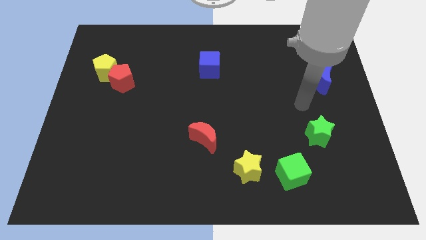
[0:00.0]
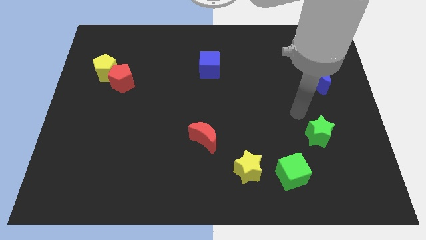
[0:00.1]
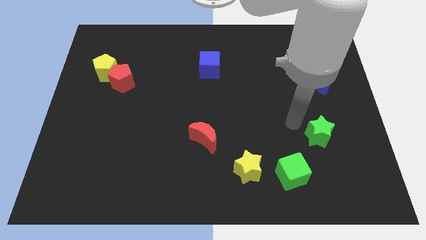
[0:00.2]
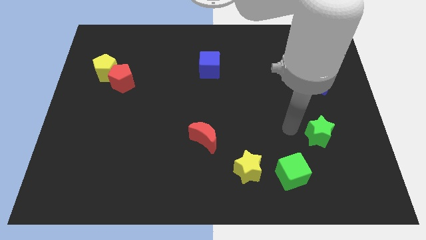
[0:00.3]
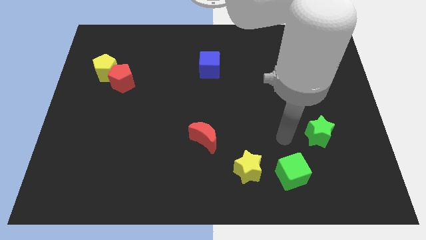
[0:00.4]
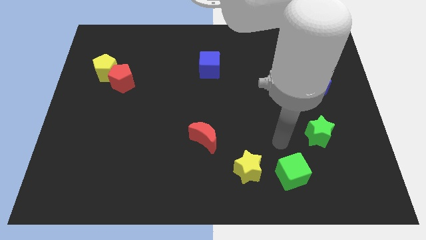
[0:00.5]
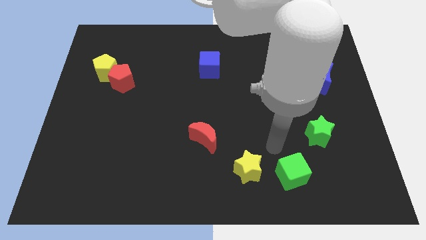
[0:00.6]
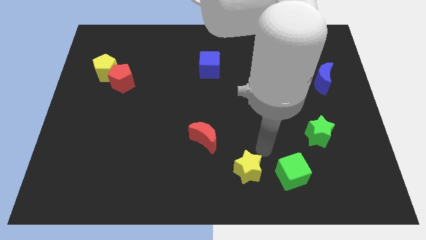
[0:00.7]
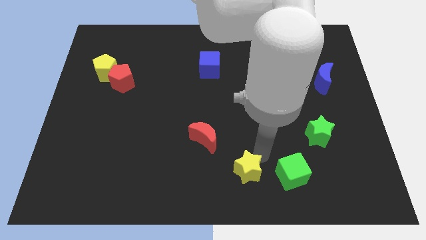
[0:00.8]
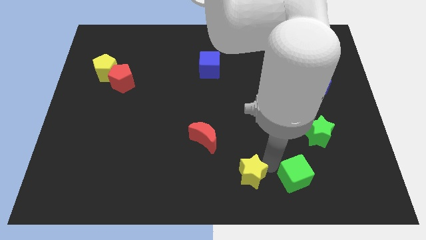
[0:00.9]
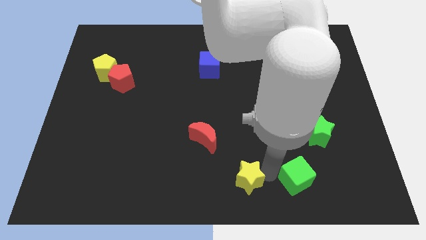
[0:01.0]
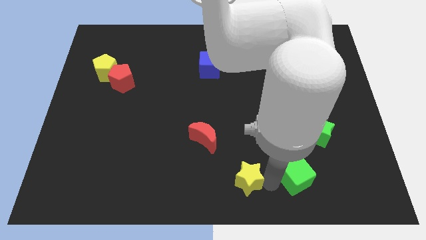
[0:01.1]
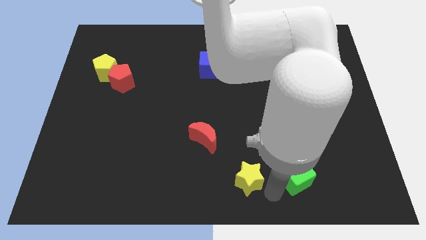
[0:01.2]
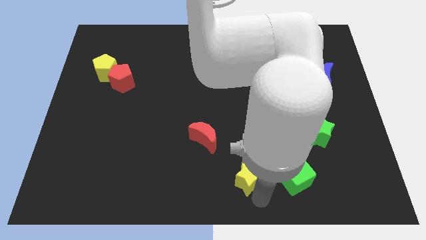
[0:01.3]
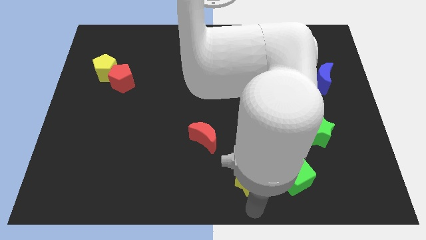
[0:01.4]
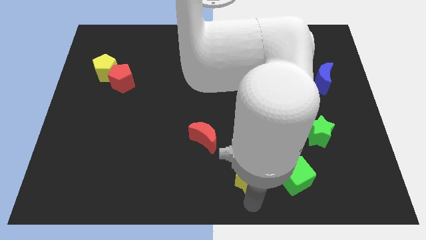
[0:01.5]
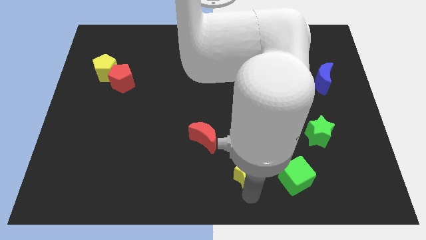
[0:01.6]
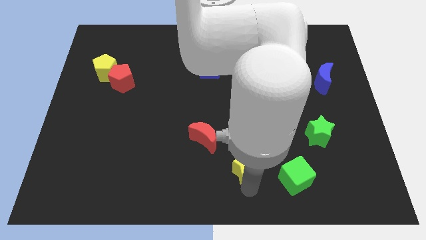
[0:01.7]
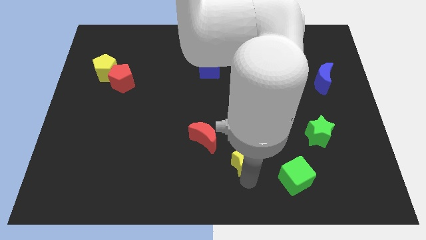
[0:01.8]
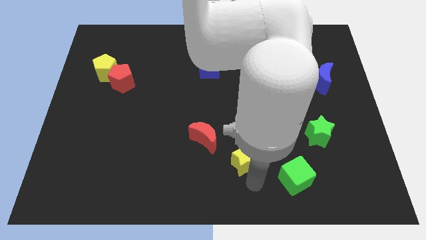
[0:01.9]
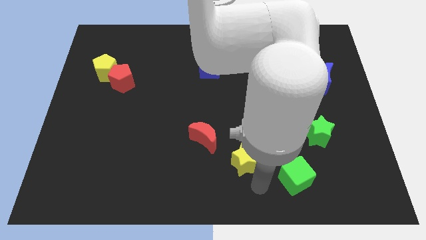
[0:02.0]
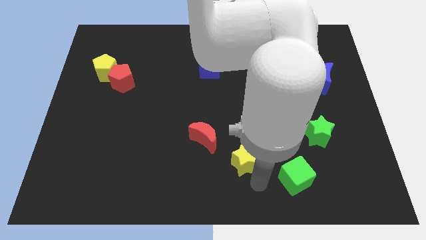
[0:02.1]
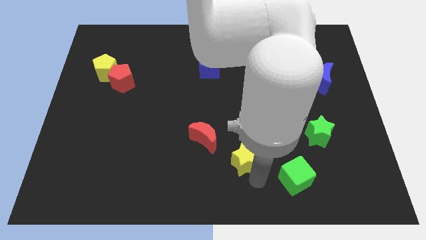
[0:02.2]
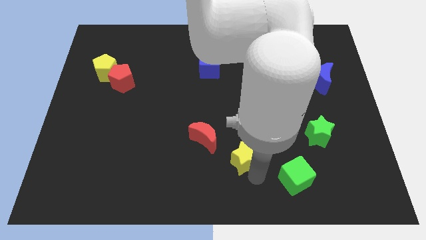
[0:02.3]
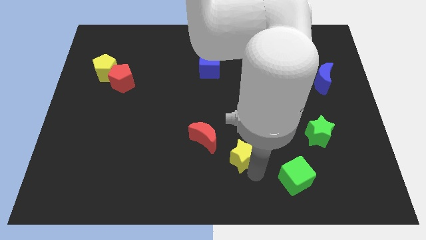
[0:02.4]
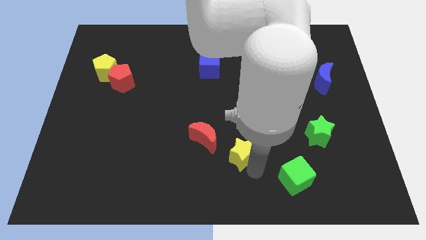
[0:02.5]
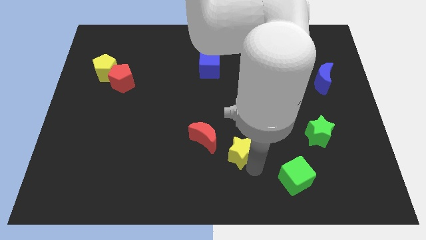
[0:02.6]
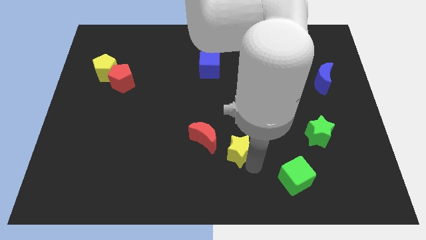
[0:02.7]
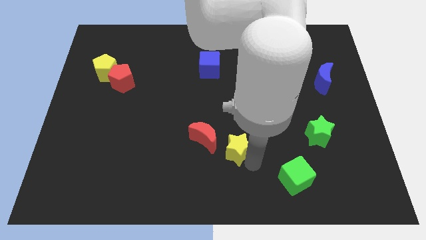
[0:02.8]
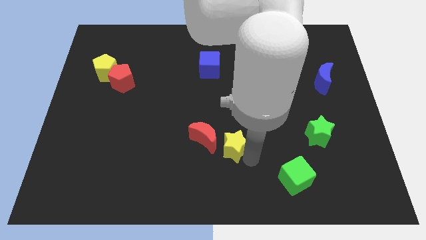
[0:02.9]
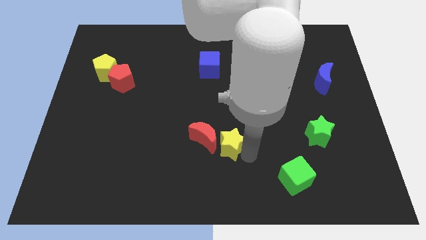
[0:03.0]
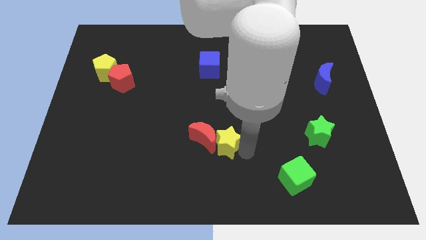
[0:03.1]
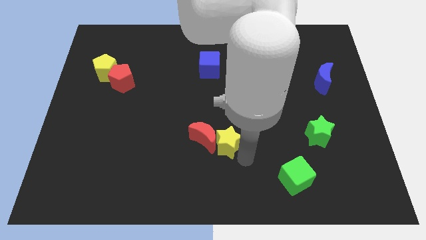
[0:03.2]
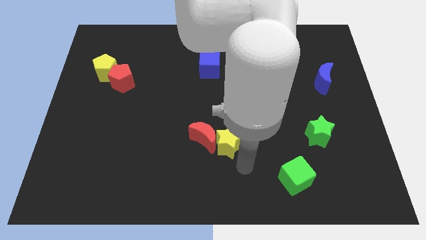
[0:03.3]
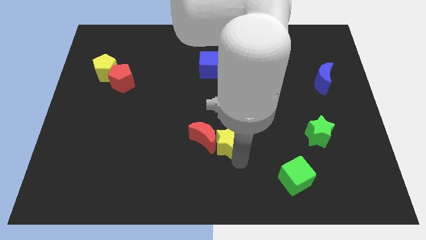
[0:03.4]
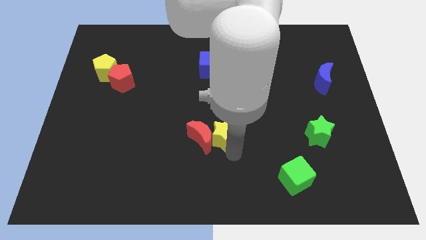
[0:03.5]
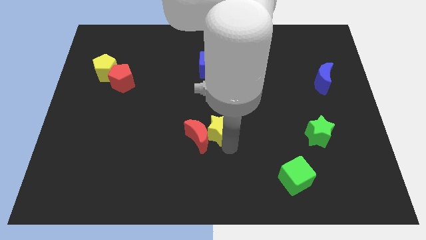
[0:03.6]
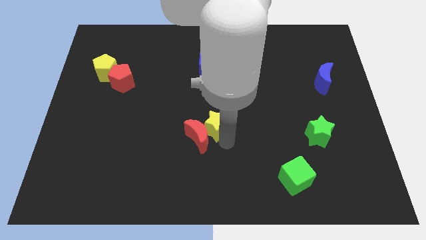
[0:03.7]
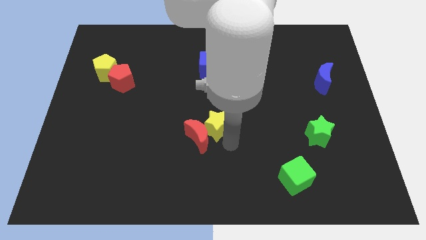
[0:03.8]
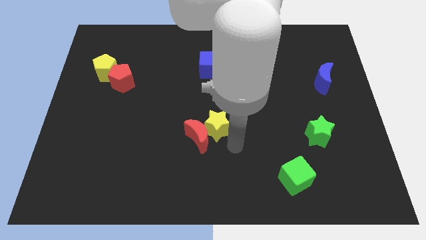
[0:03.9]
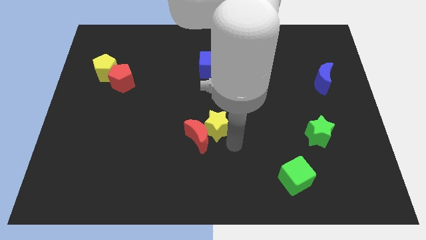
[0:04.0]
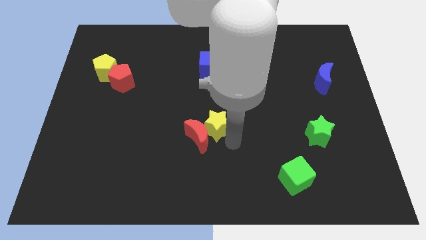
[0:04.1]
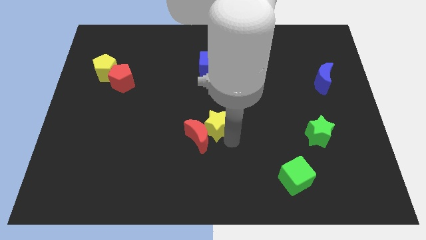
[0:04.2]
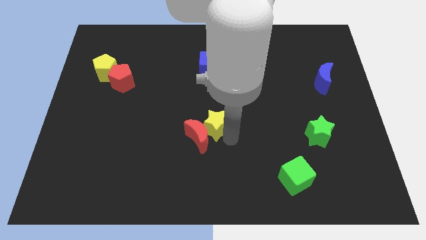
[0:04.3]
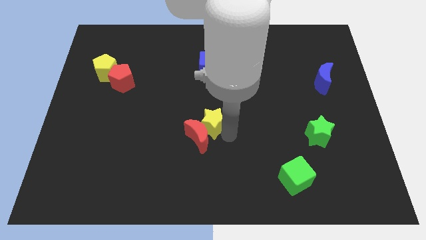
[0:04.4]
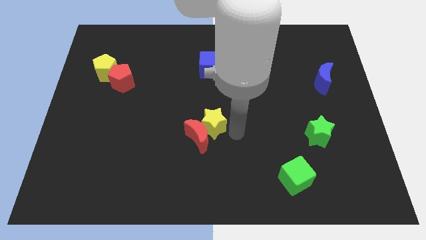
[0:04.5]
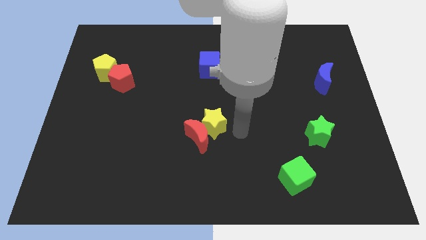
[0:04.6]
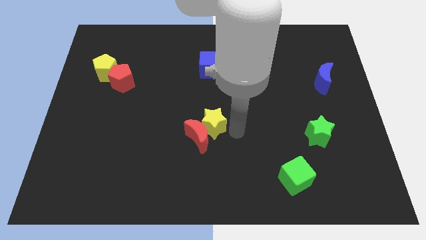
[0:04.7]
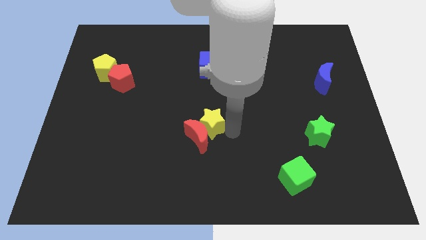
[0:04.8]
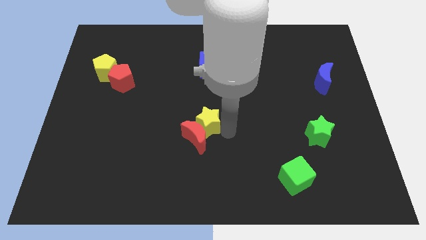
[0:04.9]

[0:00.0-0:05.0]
put the yellow star to the top left of the red moon

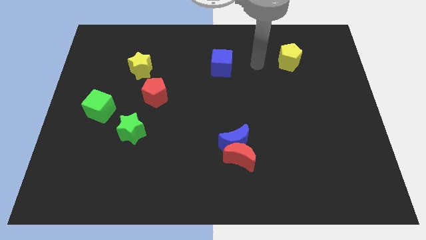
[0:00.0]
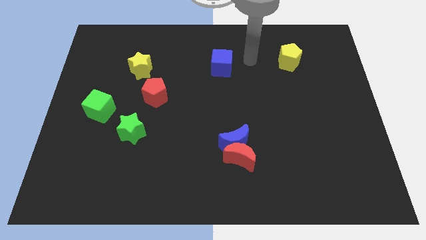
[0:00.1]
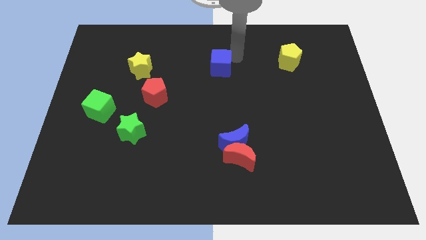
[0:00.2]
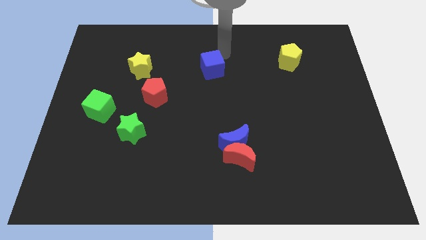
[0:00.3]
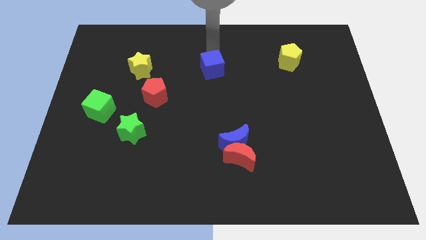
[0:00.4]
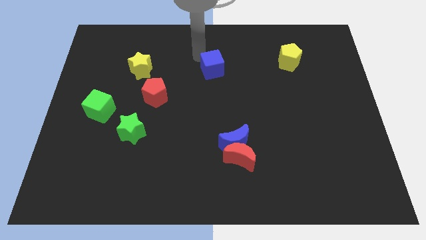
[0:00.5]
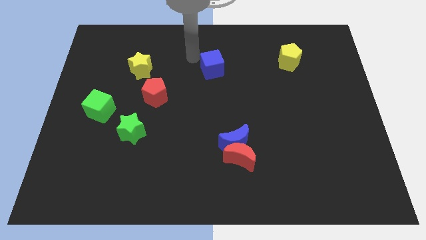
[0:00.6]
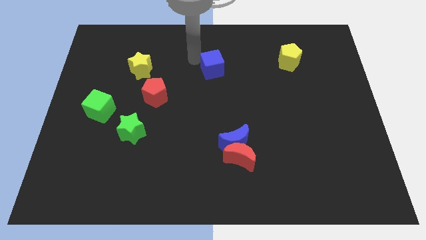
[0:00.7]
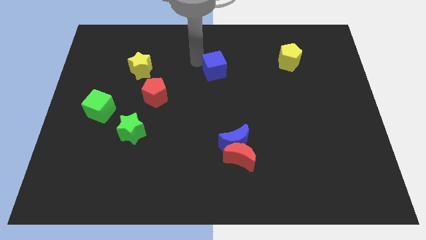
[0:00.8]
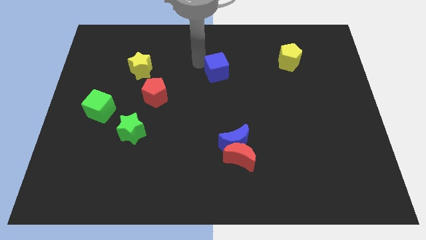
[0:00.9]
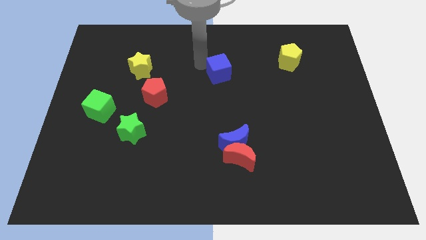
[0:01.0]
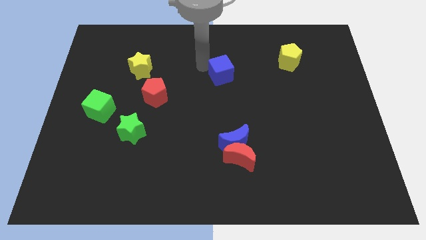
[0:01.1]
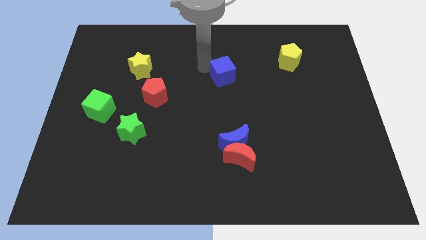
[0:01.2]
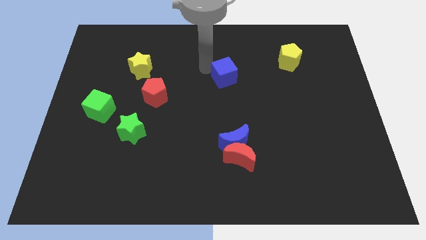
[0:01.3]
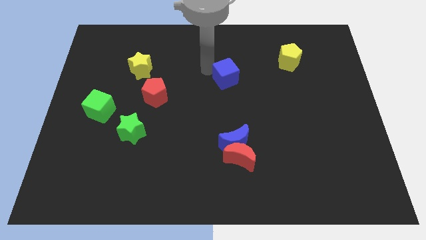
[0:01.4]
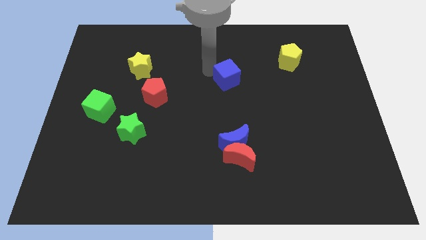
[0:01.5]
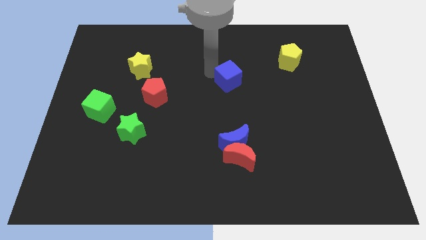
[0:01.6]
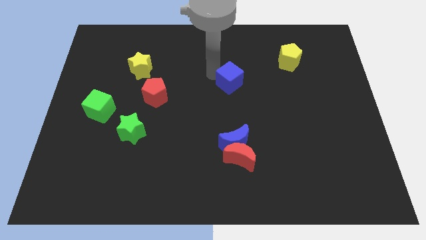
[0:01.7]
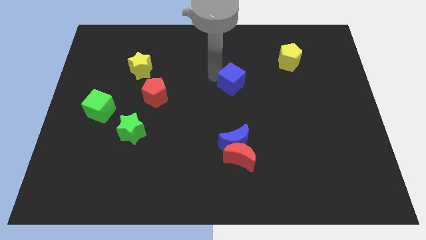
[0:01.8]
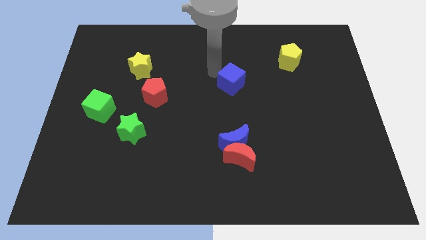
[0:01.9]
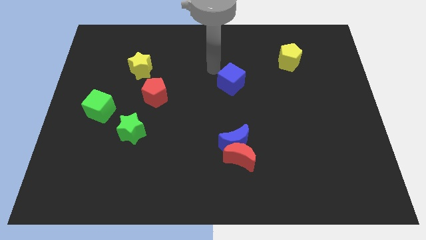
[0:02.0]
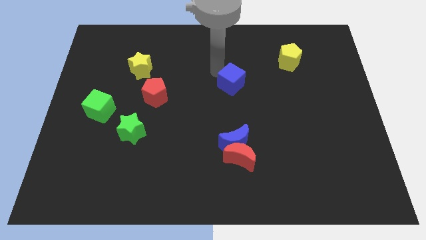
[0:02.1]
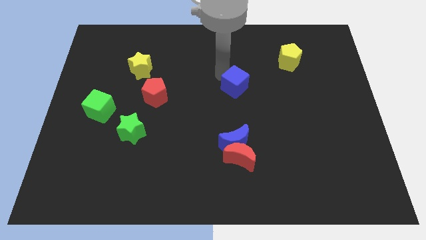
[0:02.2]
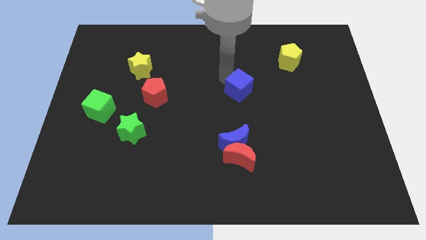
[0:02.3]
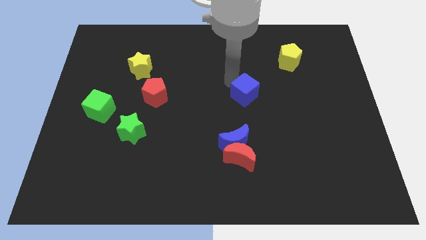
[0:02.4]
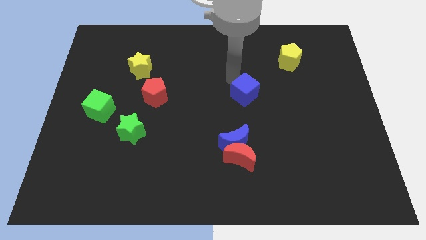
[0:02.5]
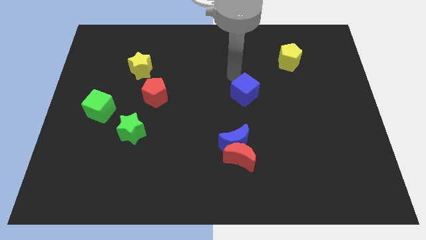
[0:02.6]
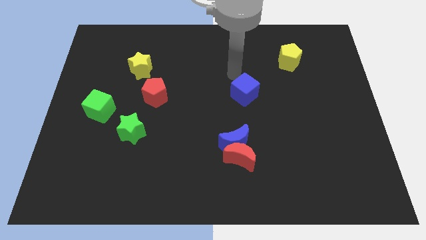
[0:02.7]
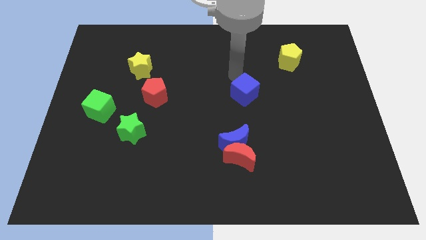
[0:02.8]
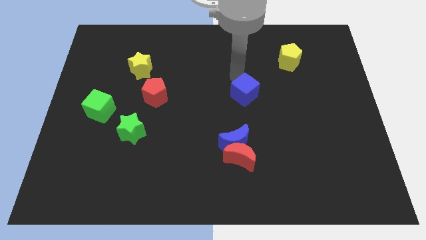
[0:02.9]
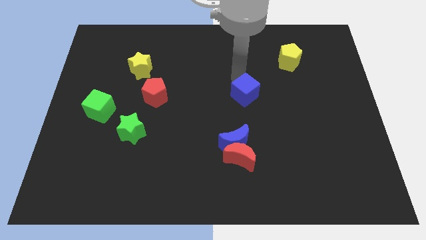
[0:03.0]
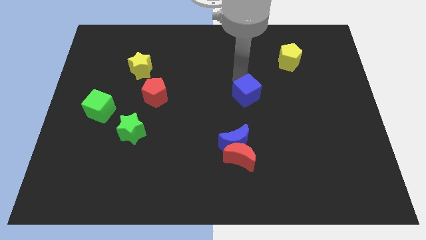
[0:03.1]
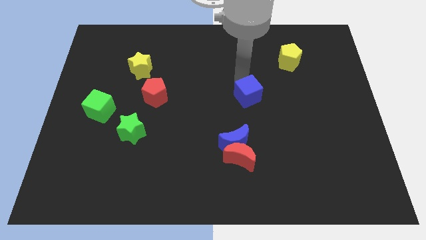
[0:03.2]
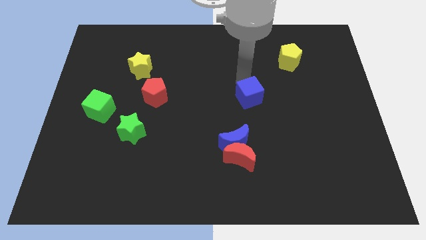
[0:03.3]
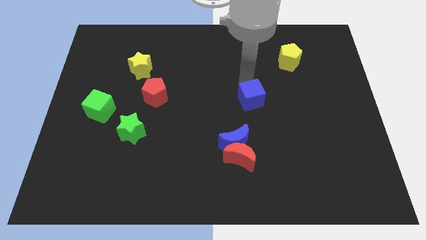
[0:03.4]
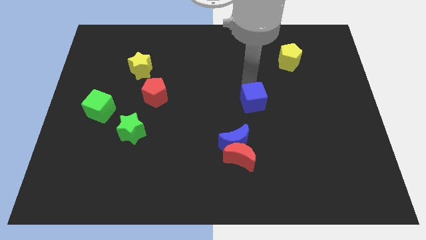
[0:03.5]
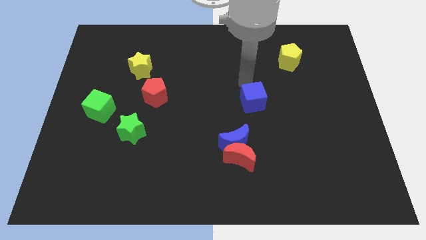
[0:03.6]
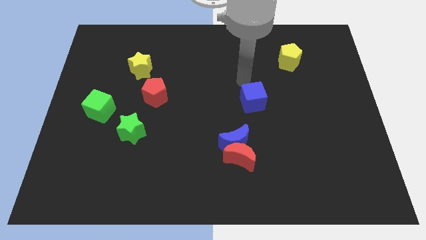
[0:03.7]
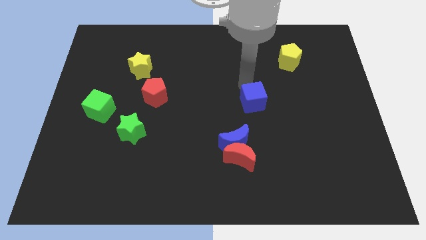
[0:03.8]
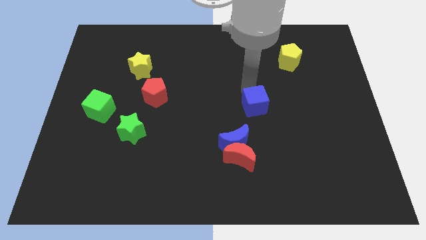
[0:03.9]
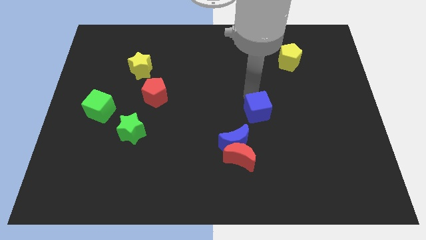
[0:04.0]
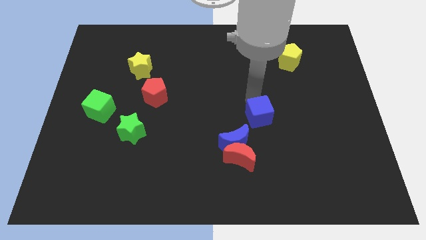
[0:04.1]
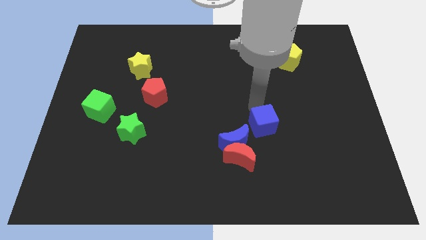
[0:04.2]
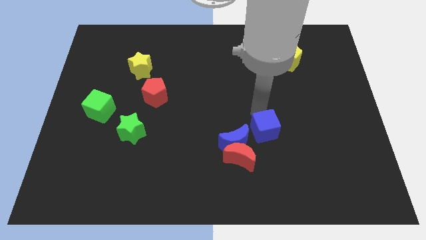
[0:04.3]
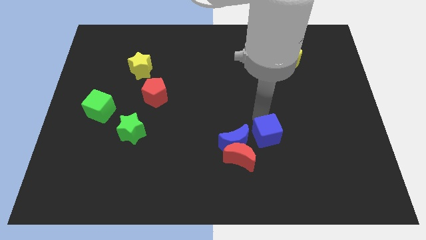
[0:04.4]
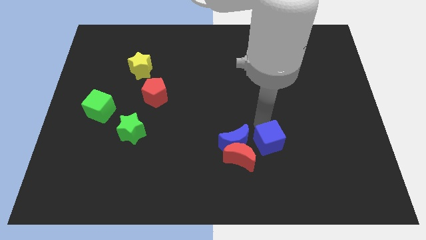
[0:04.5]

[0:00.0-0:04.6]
slide the blue cube to the right of the red moon
